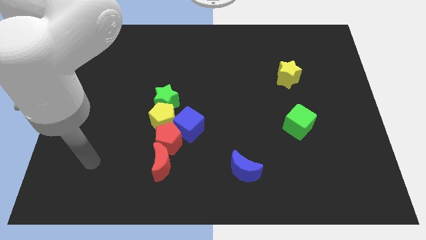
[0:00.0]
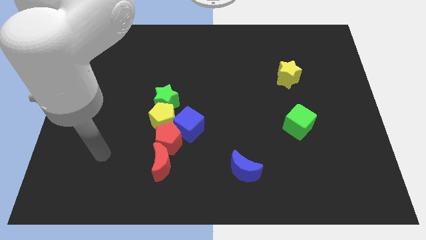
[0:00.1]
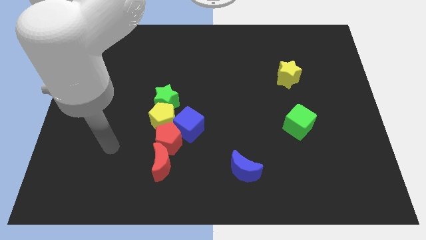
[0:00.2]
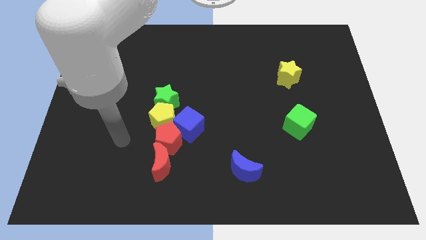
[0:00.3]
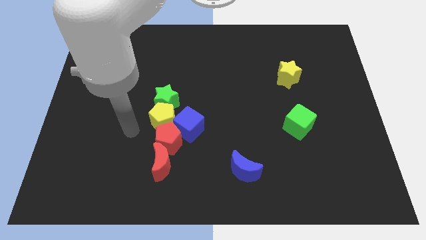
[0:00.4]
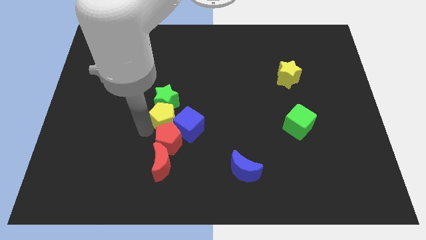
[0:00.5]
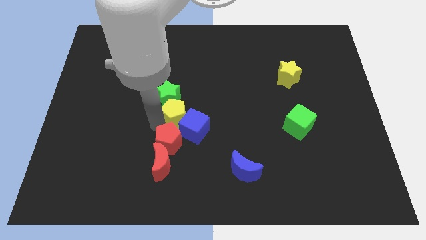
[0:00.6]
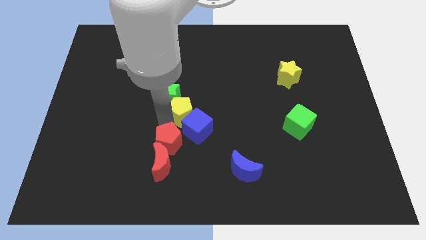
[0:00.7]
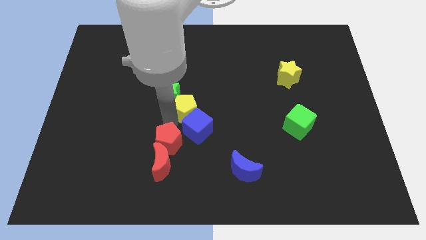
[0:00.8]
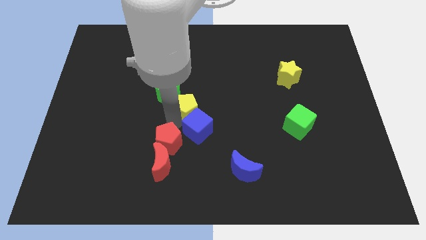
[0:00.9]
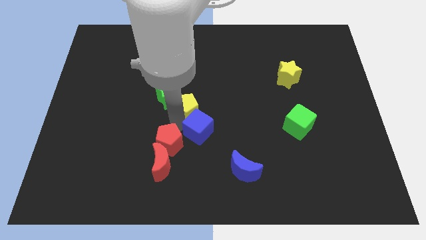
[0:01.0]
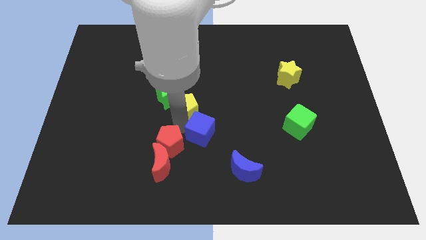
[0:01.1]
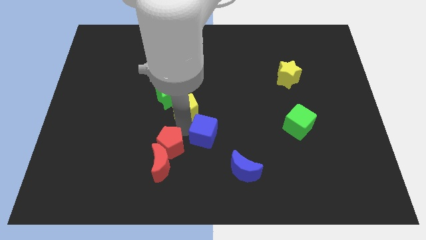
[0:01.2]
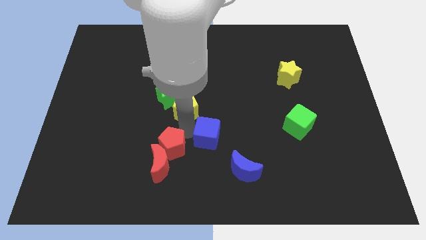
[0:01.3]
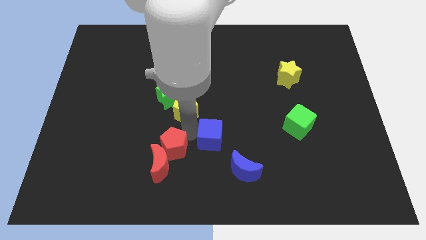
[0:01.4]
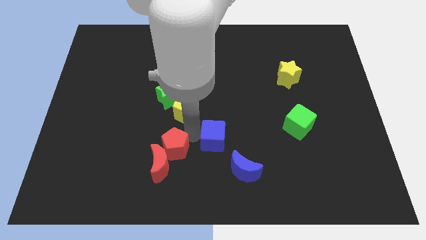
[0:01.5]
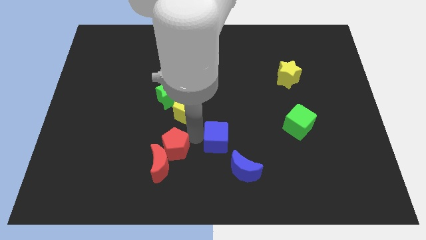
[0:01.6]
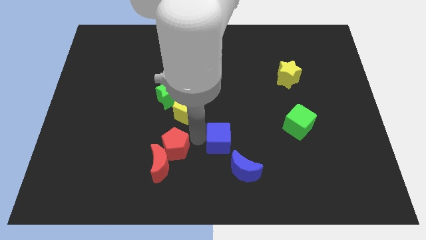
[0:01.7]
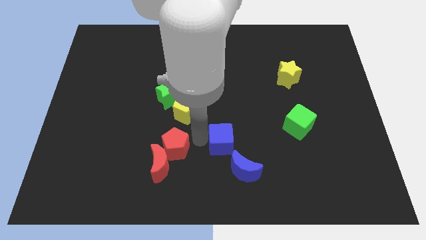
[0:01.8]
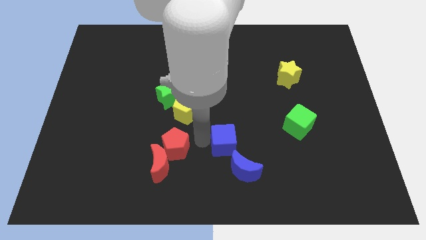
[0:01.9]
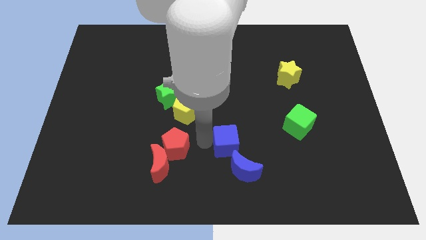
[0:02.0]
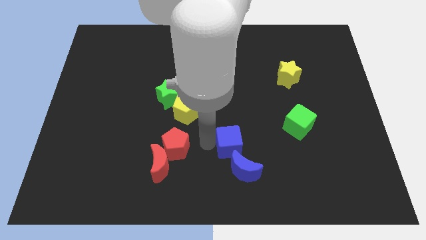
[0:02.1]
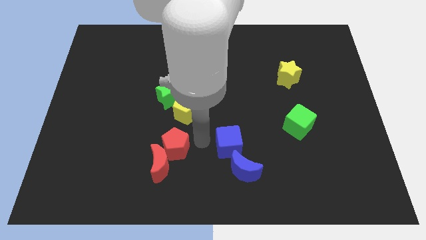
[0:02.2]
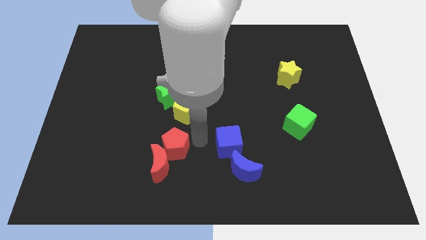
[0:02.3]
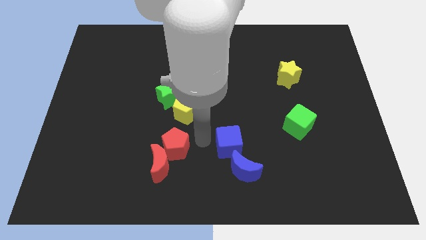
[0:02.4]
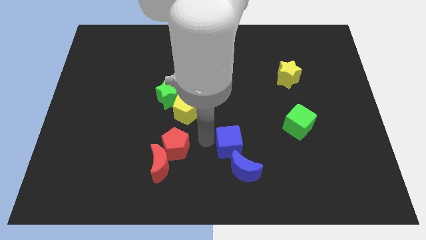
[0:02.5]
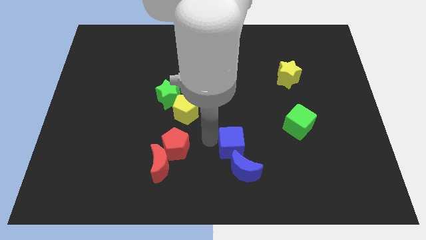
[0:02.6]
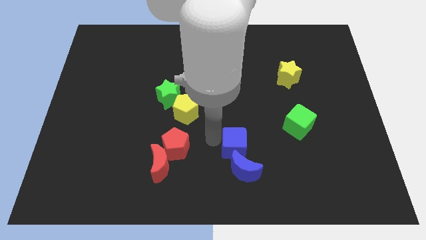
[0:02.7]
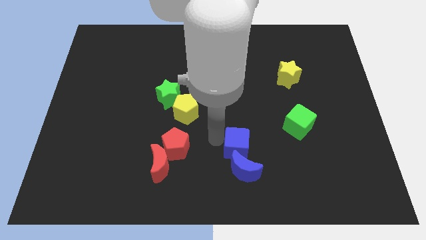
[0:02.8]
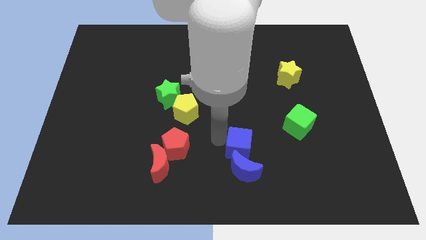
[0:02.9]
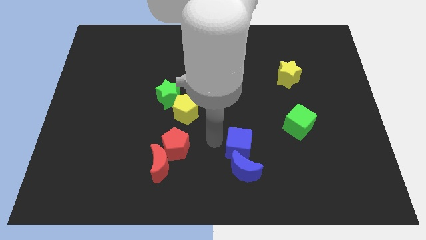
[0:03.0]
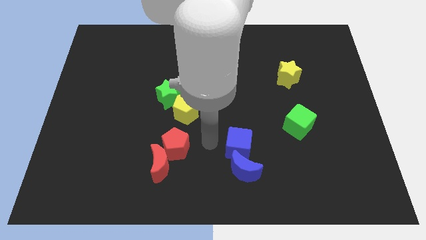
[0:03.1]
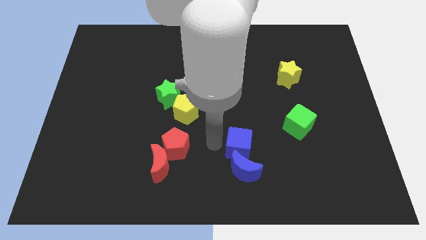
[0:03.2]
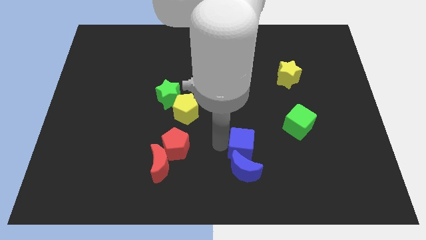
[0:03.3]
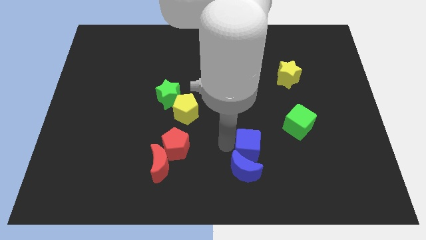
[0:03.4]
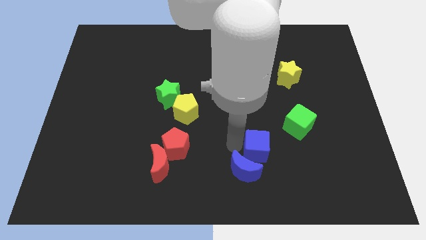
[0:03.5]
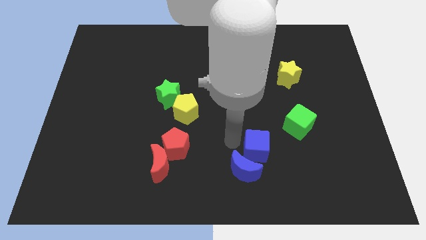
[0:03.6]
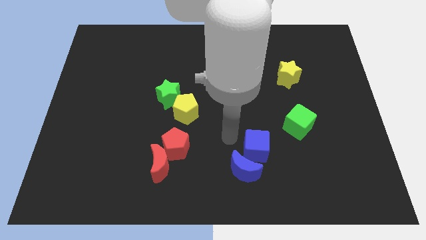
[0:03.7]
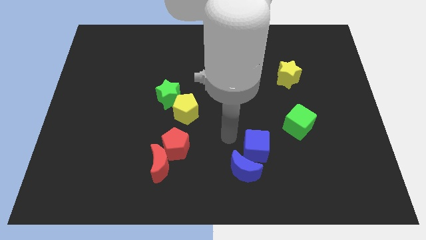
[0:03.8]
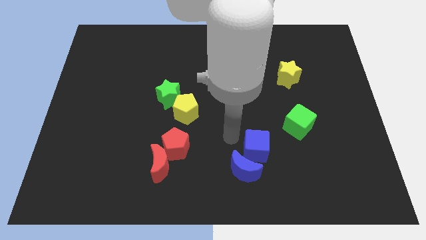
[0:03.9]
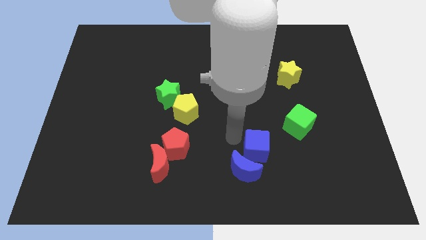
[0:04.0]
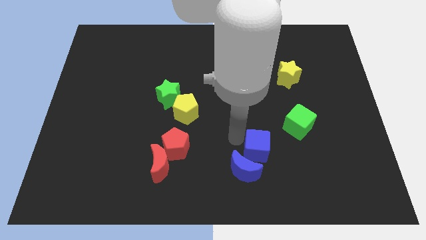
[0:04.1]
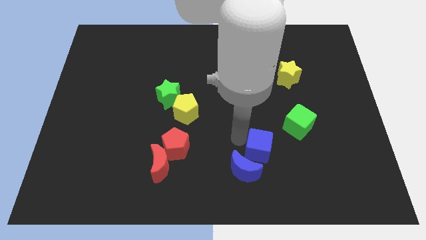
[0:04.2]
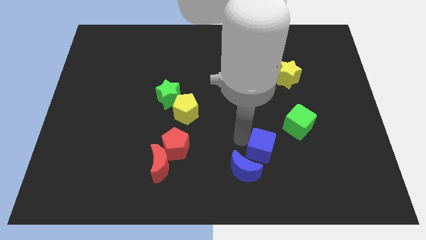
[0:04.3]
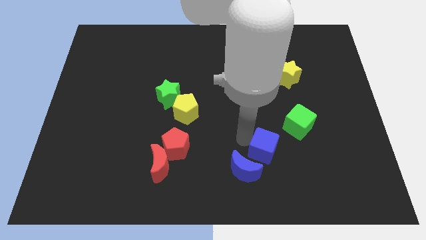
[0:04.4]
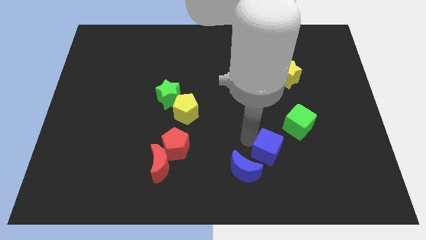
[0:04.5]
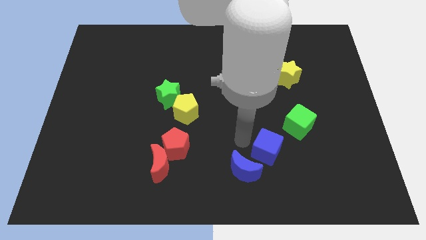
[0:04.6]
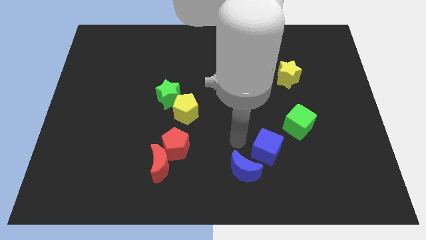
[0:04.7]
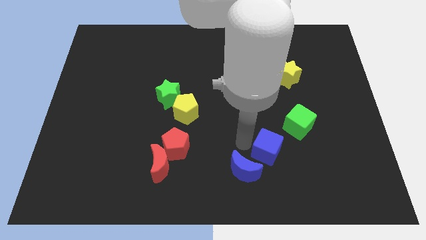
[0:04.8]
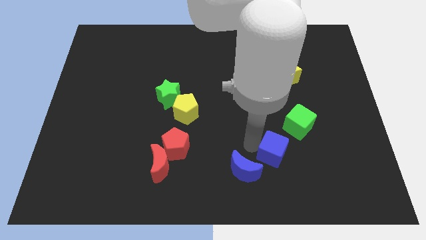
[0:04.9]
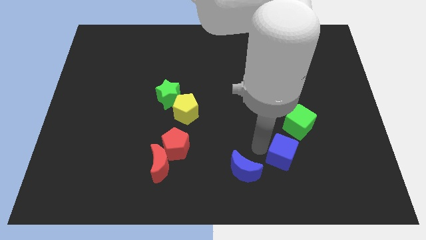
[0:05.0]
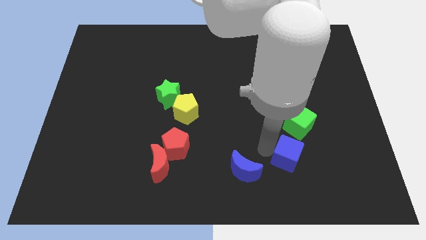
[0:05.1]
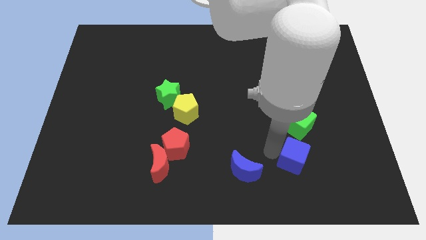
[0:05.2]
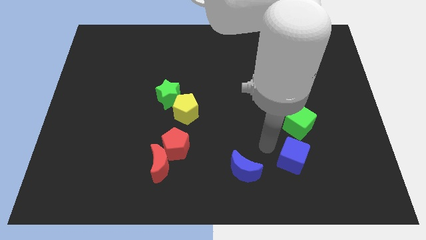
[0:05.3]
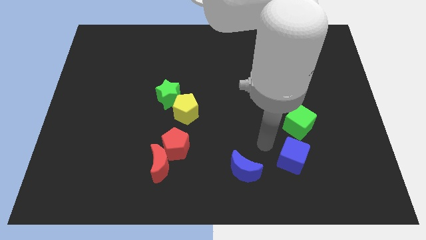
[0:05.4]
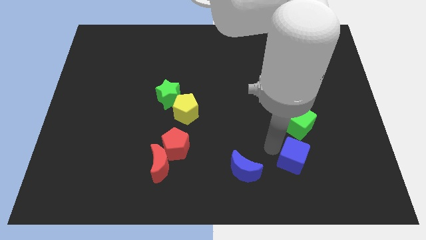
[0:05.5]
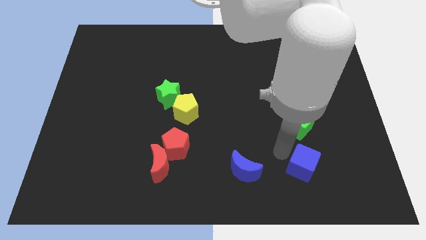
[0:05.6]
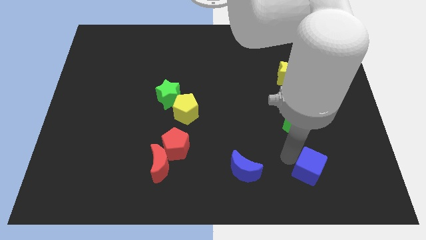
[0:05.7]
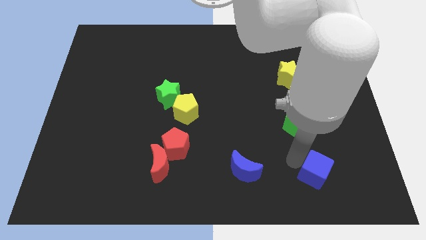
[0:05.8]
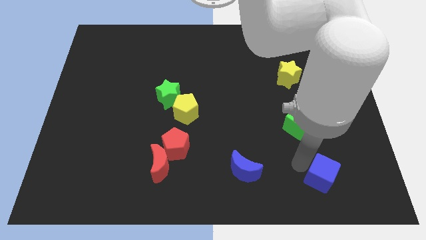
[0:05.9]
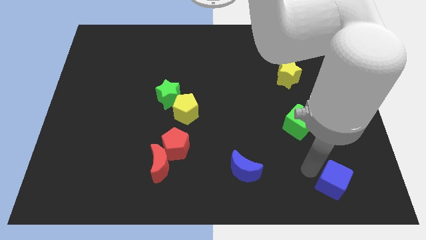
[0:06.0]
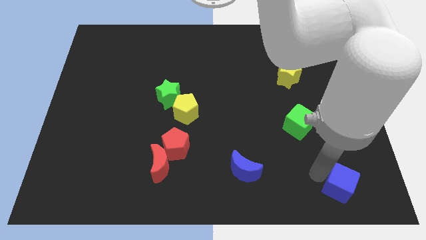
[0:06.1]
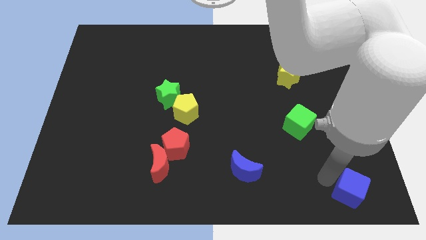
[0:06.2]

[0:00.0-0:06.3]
slide the blue cube to the bottom right of the board
